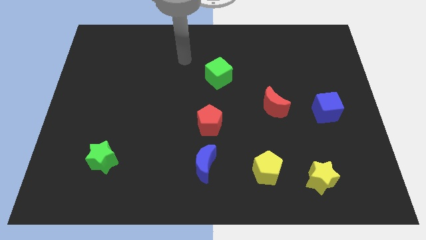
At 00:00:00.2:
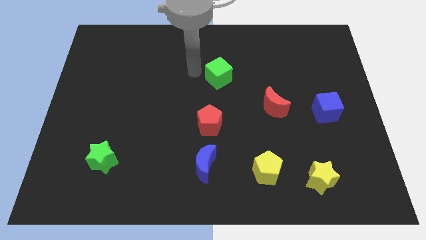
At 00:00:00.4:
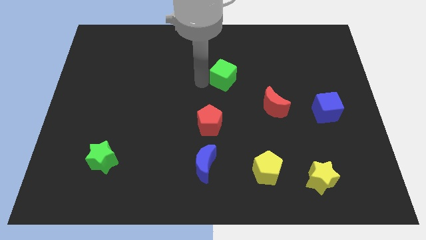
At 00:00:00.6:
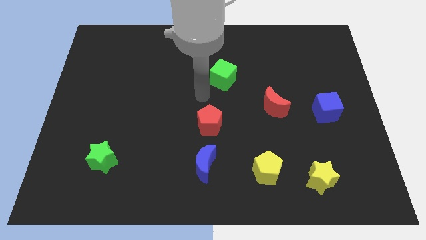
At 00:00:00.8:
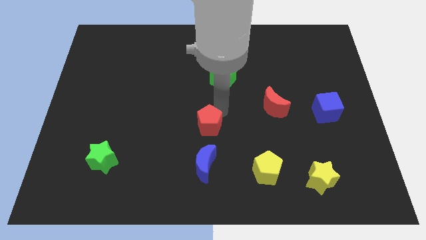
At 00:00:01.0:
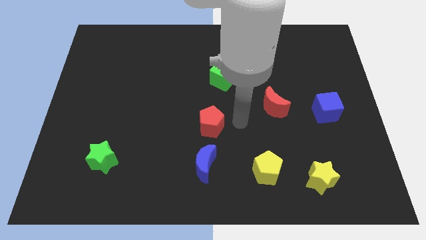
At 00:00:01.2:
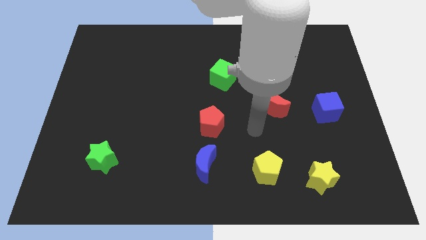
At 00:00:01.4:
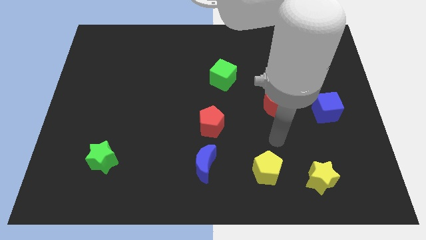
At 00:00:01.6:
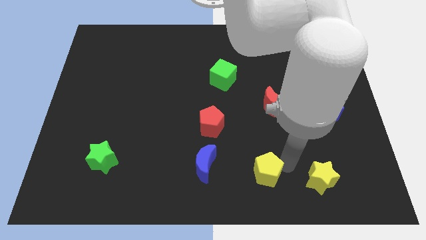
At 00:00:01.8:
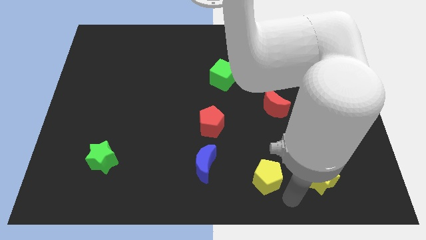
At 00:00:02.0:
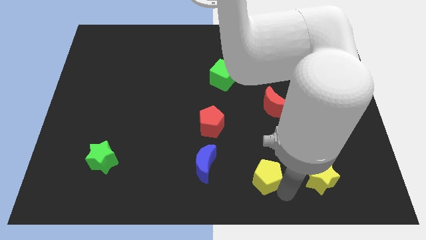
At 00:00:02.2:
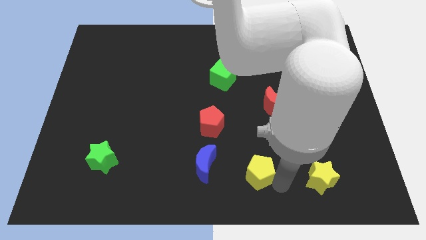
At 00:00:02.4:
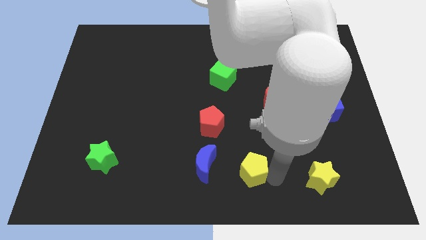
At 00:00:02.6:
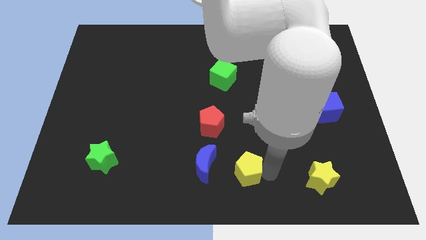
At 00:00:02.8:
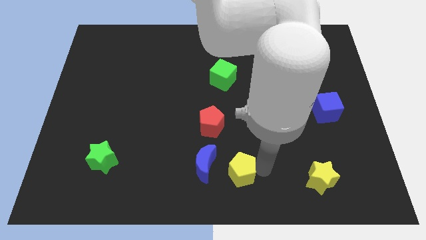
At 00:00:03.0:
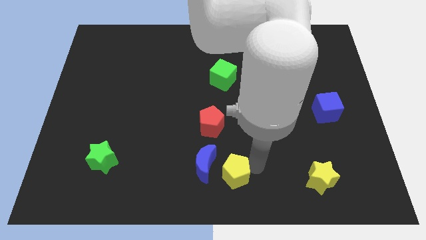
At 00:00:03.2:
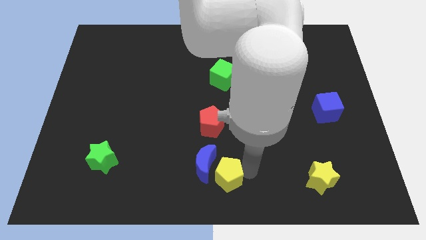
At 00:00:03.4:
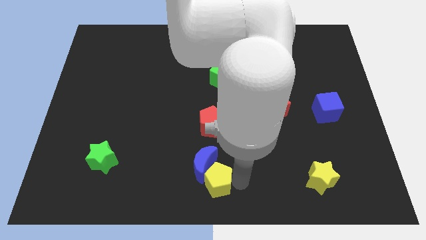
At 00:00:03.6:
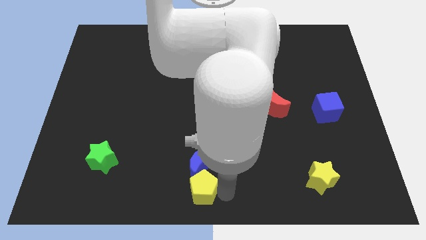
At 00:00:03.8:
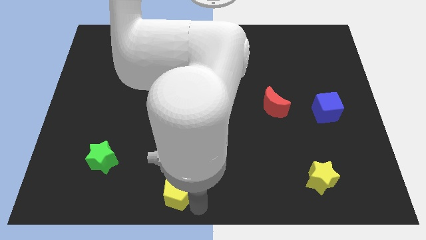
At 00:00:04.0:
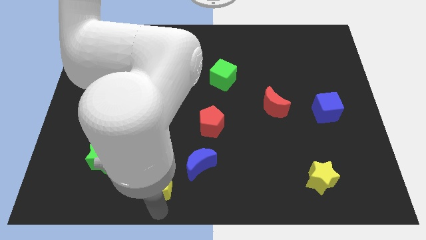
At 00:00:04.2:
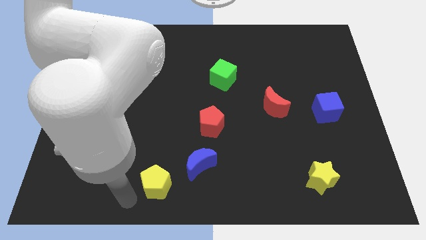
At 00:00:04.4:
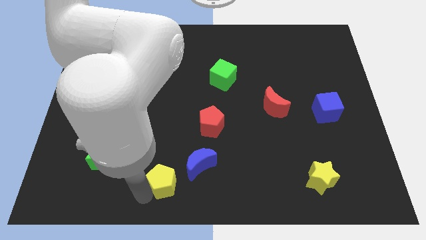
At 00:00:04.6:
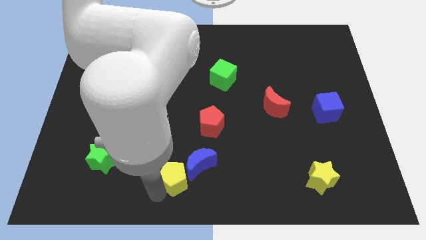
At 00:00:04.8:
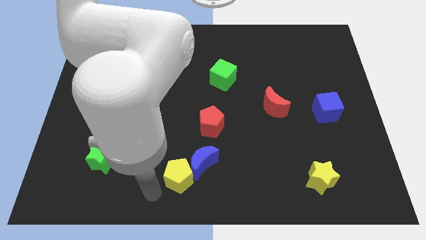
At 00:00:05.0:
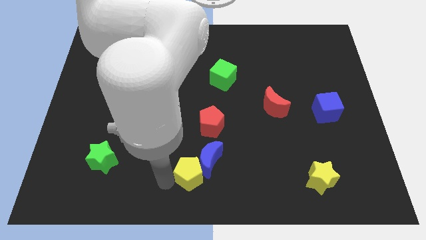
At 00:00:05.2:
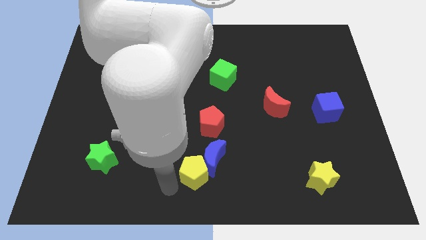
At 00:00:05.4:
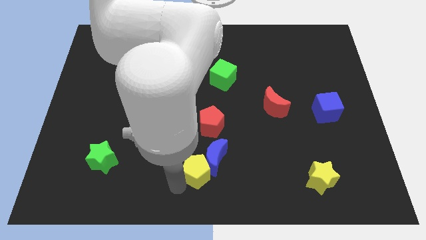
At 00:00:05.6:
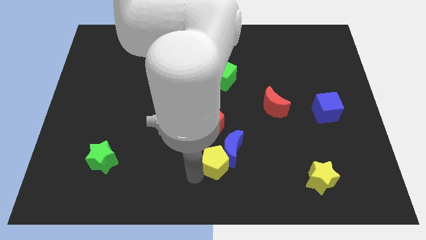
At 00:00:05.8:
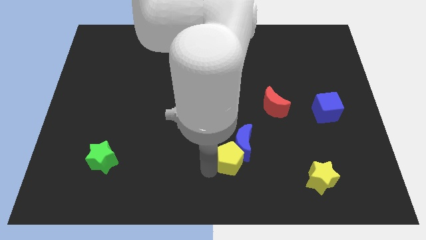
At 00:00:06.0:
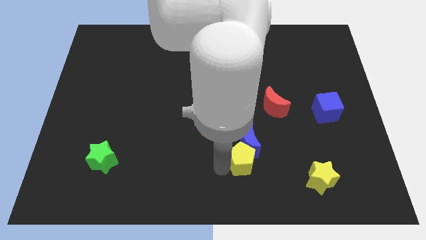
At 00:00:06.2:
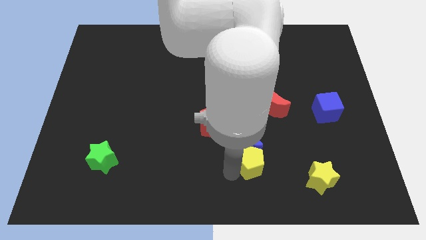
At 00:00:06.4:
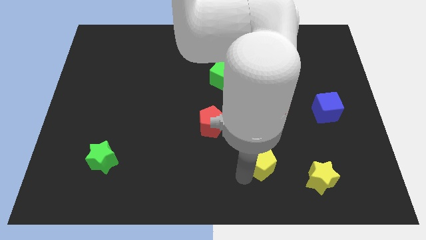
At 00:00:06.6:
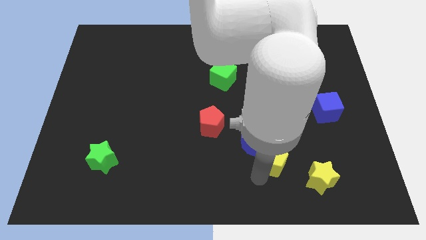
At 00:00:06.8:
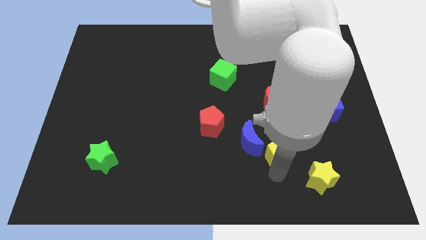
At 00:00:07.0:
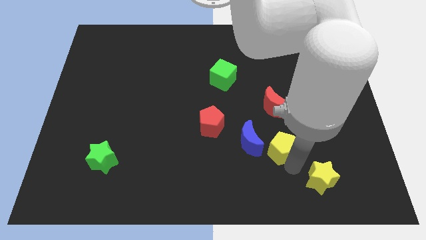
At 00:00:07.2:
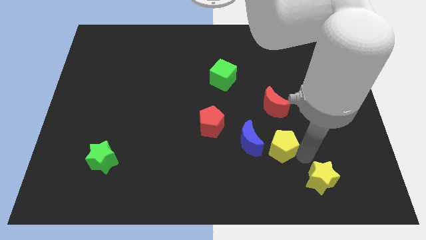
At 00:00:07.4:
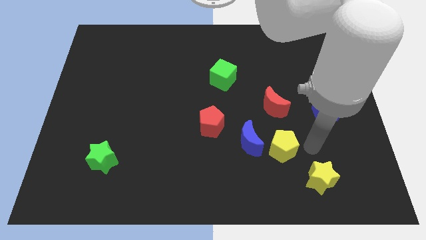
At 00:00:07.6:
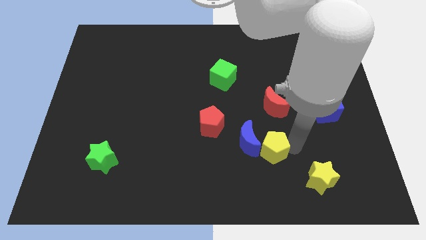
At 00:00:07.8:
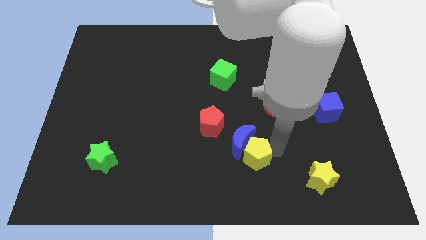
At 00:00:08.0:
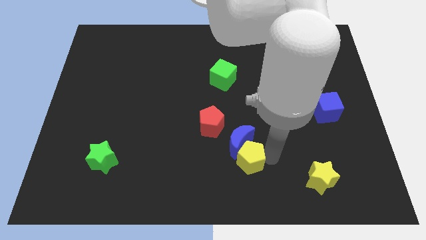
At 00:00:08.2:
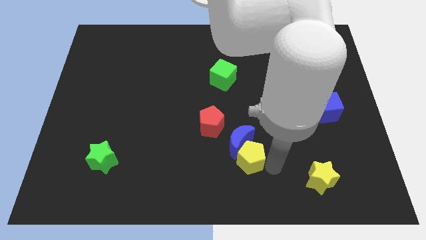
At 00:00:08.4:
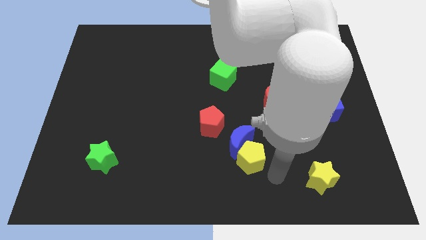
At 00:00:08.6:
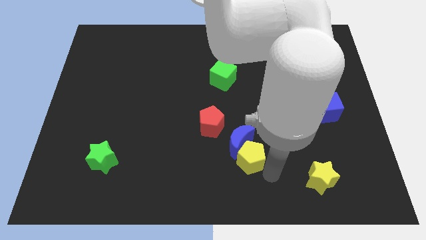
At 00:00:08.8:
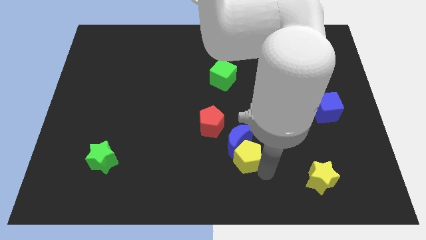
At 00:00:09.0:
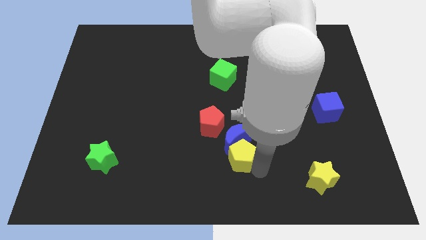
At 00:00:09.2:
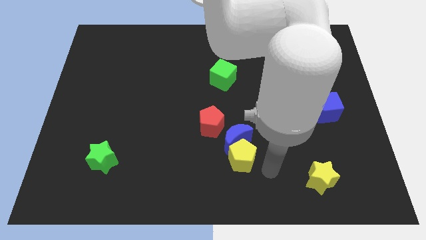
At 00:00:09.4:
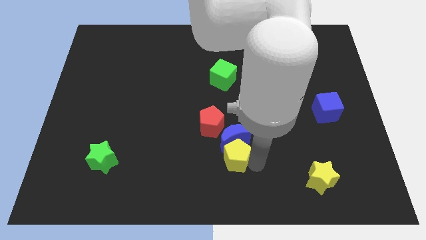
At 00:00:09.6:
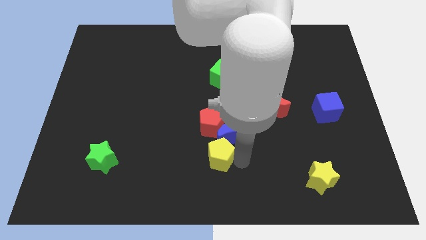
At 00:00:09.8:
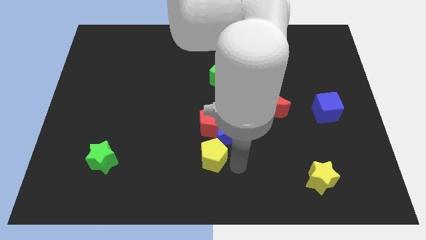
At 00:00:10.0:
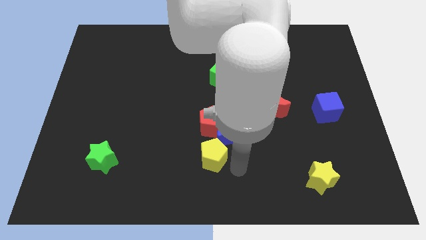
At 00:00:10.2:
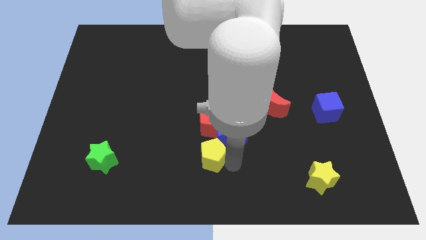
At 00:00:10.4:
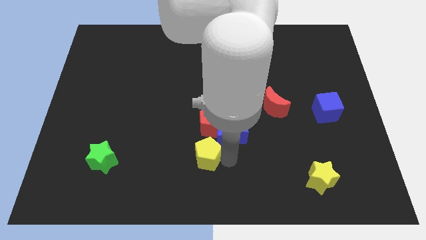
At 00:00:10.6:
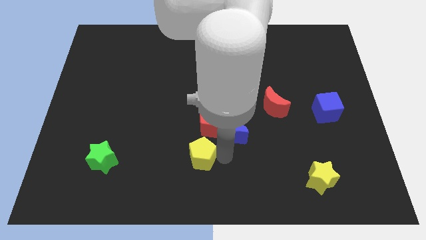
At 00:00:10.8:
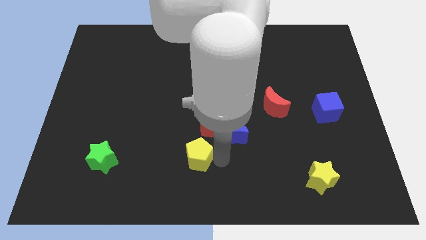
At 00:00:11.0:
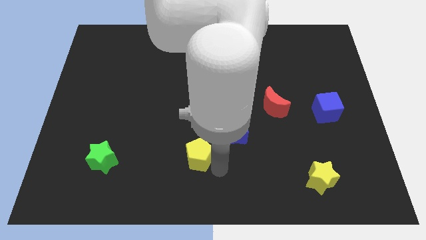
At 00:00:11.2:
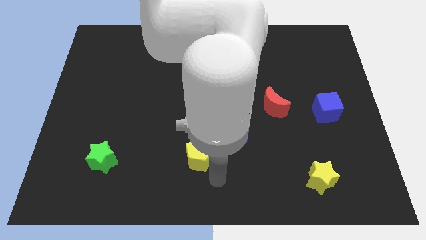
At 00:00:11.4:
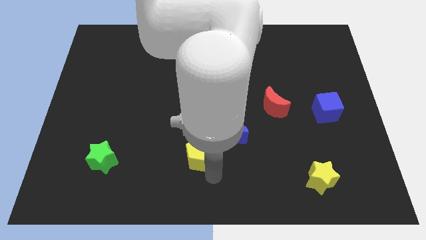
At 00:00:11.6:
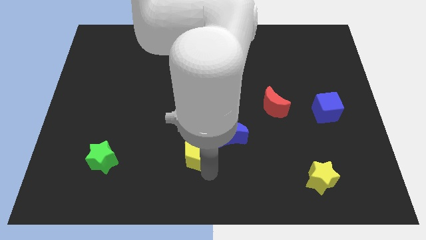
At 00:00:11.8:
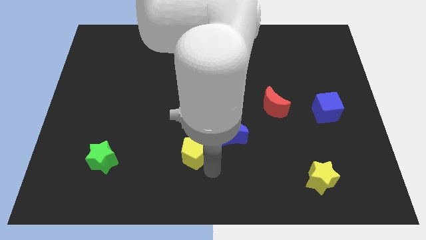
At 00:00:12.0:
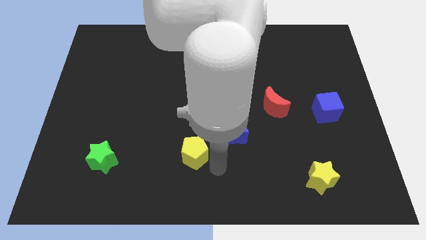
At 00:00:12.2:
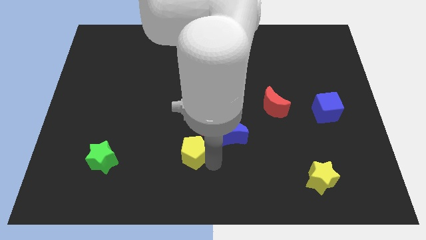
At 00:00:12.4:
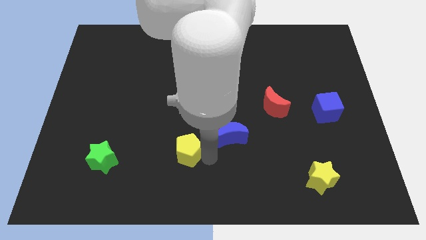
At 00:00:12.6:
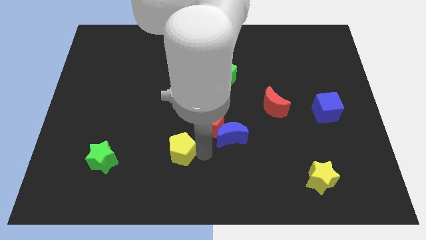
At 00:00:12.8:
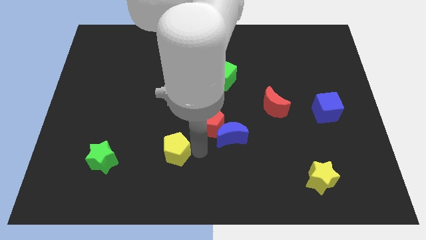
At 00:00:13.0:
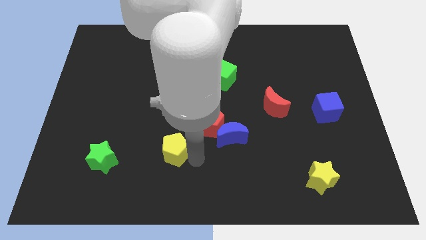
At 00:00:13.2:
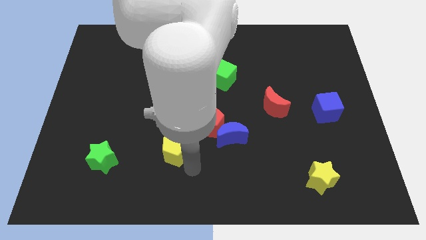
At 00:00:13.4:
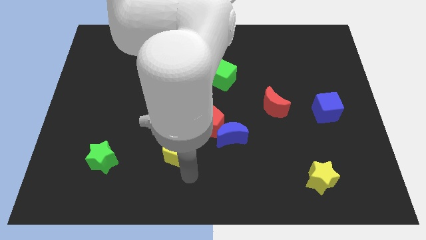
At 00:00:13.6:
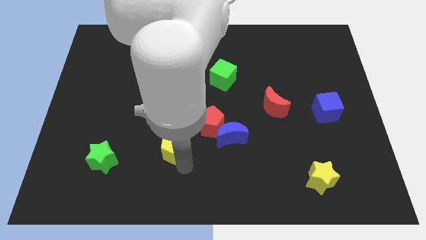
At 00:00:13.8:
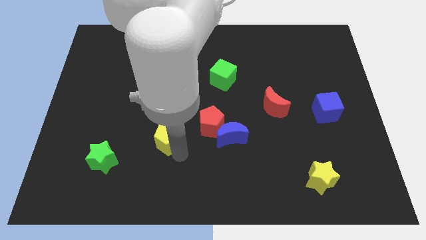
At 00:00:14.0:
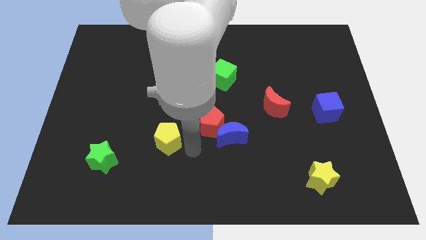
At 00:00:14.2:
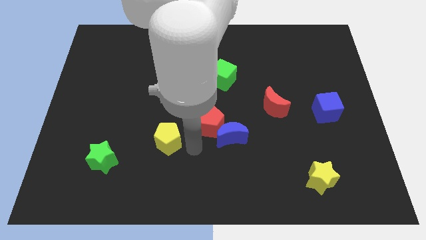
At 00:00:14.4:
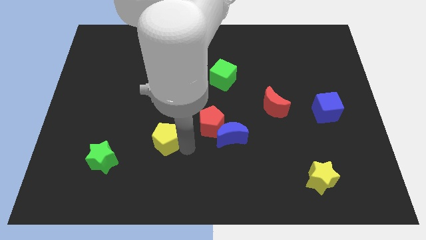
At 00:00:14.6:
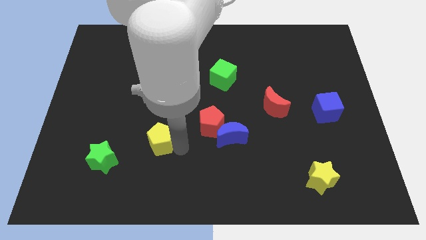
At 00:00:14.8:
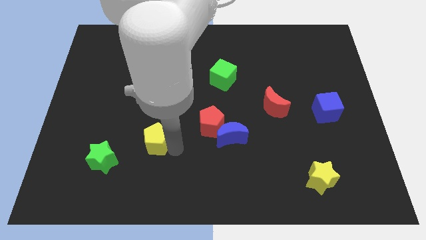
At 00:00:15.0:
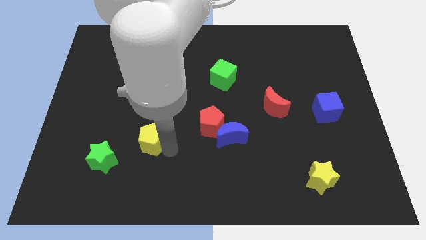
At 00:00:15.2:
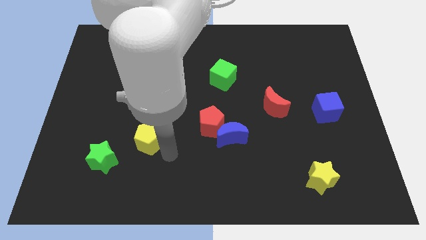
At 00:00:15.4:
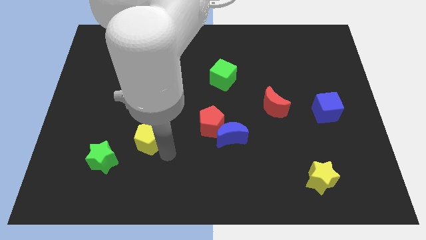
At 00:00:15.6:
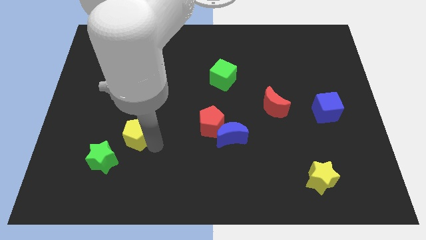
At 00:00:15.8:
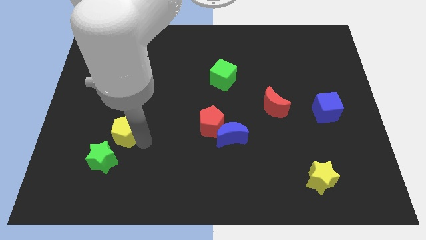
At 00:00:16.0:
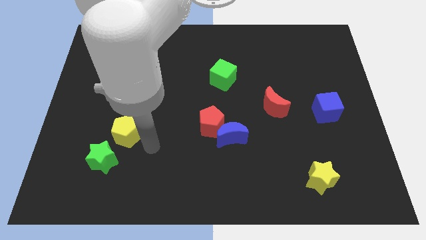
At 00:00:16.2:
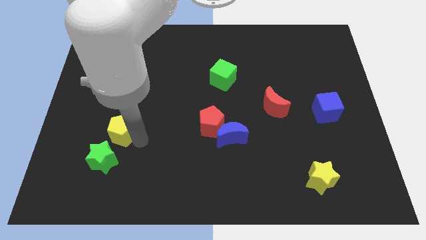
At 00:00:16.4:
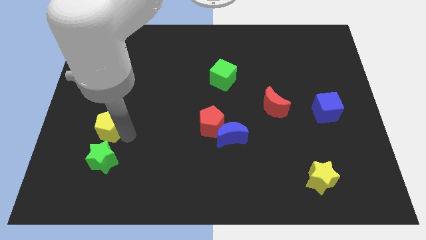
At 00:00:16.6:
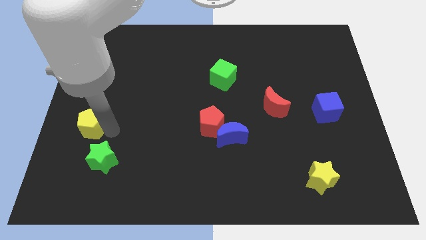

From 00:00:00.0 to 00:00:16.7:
move the yellow pentagon to the center left
